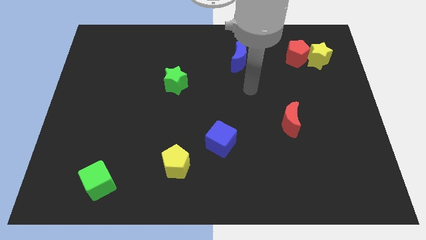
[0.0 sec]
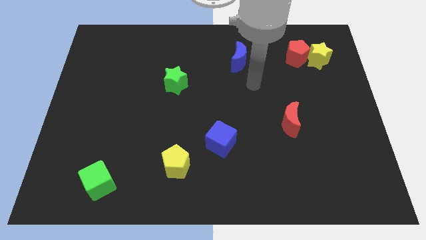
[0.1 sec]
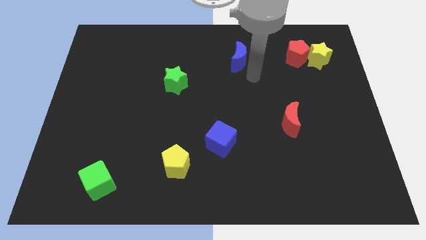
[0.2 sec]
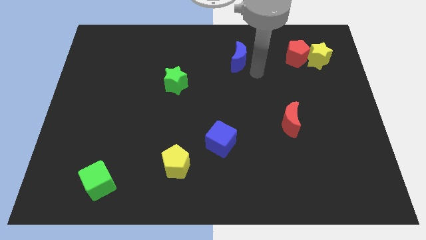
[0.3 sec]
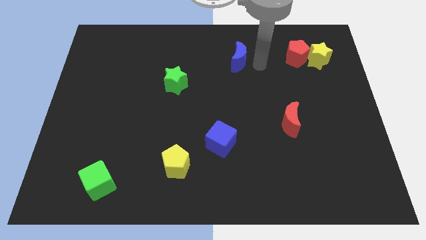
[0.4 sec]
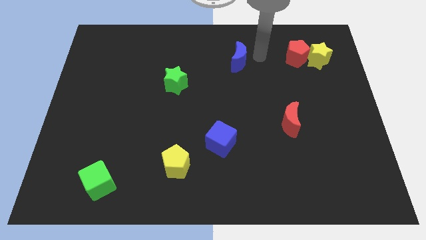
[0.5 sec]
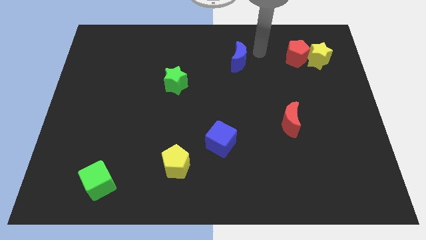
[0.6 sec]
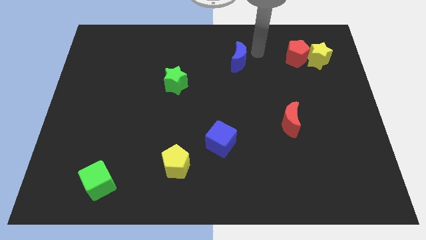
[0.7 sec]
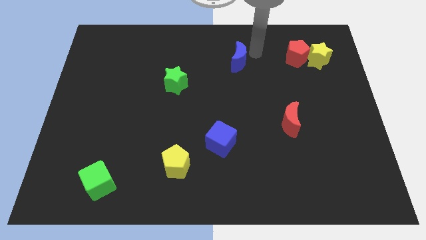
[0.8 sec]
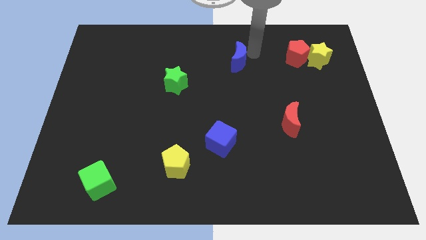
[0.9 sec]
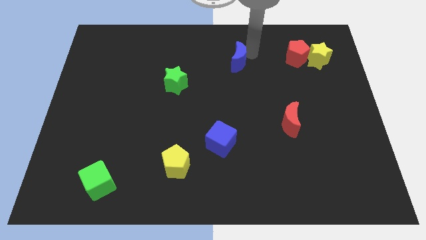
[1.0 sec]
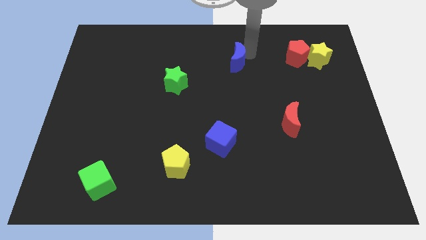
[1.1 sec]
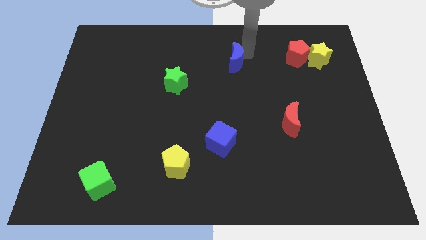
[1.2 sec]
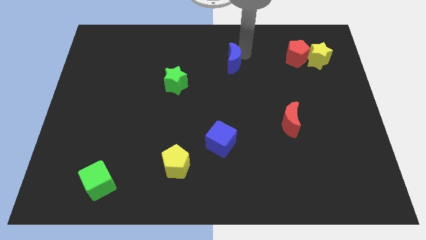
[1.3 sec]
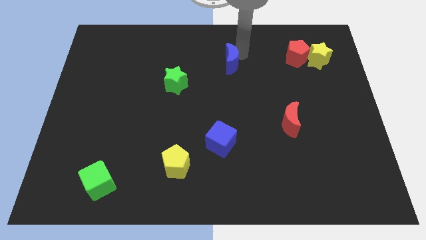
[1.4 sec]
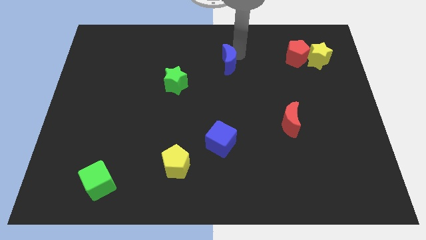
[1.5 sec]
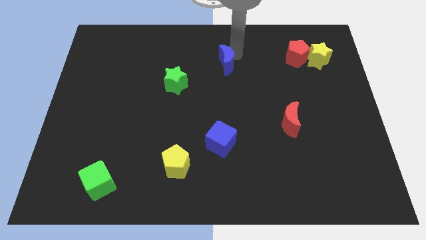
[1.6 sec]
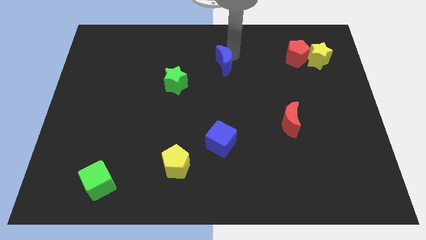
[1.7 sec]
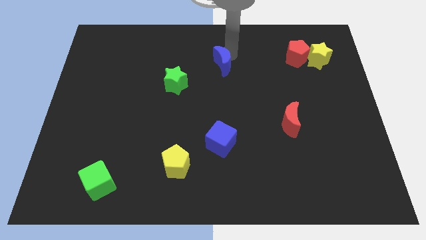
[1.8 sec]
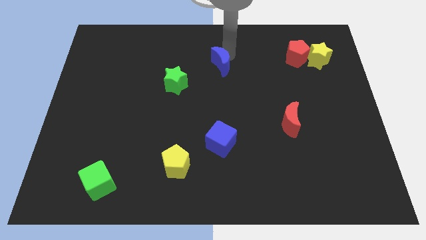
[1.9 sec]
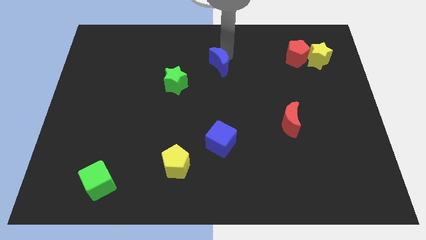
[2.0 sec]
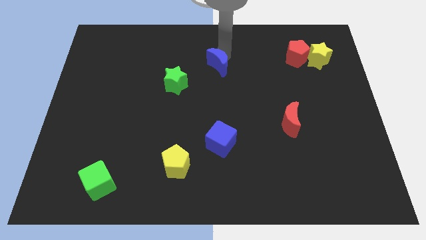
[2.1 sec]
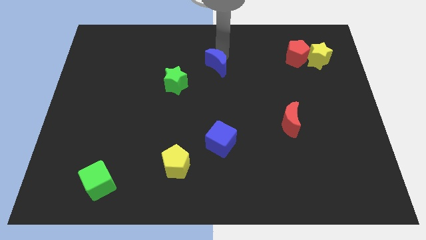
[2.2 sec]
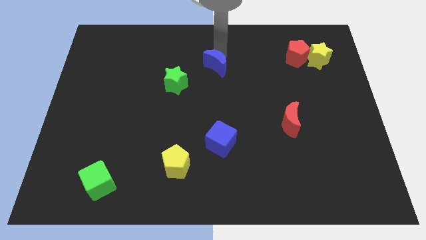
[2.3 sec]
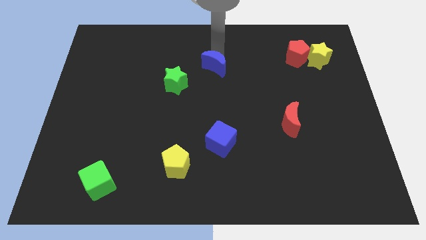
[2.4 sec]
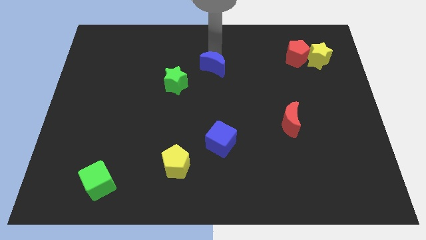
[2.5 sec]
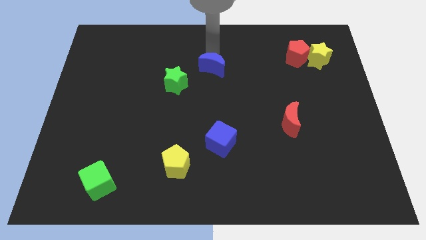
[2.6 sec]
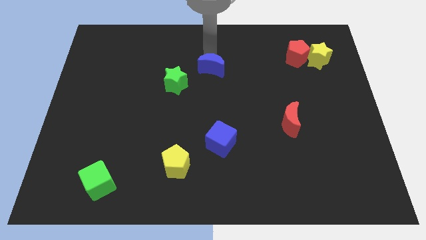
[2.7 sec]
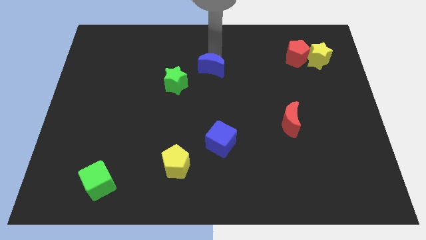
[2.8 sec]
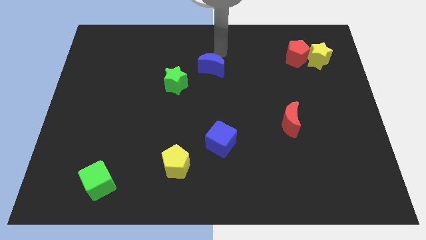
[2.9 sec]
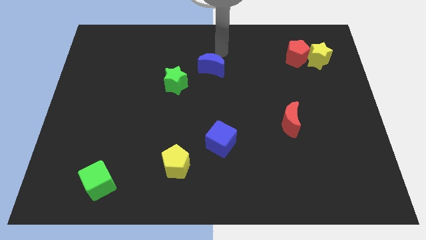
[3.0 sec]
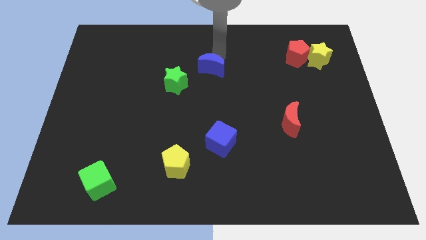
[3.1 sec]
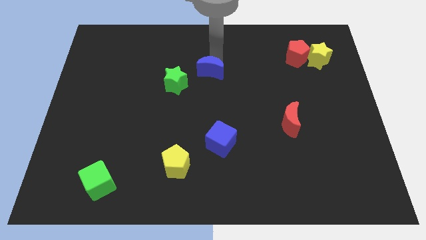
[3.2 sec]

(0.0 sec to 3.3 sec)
push the blue moon a little down and then to the left

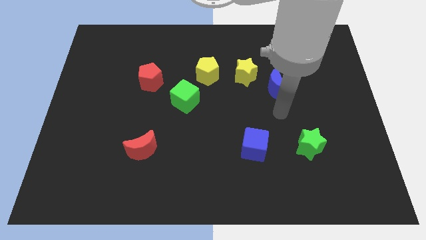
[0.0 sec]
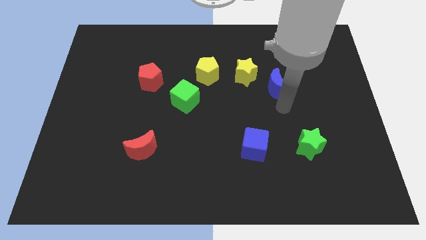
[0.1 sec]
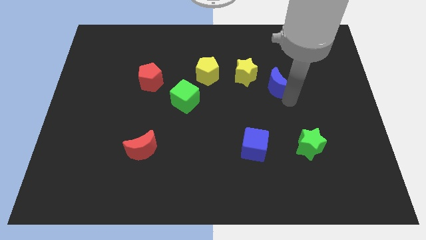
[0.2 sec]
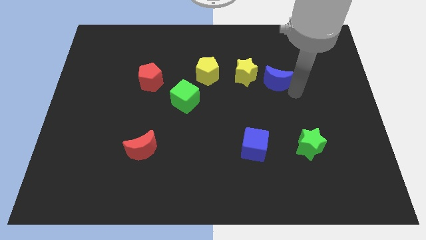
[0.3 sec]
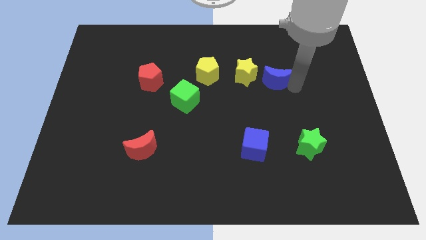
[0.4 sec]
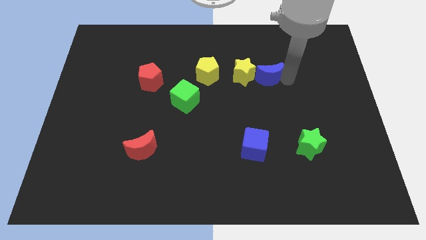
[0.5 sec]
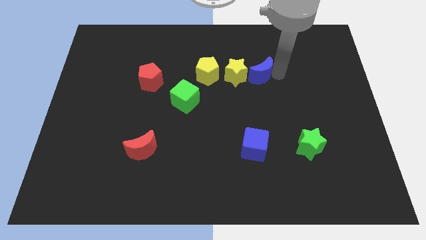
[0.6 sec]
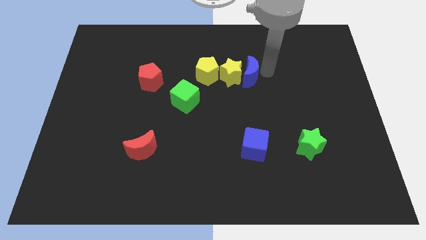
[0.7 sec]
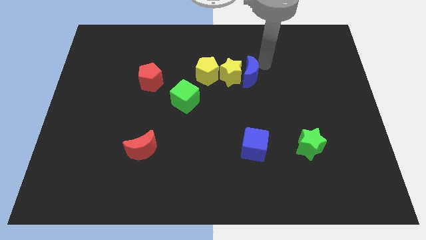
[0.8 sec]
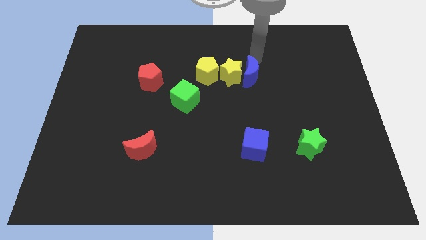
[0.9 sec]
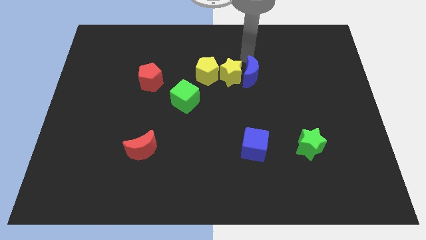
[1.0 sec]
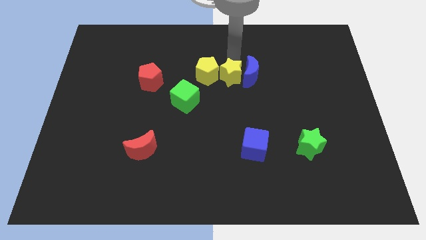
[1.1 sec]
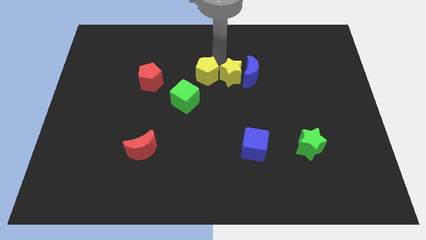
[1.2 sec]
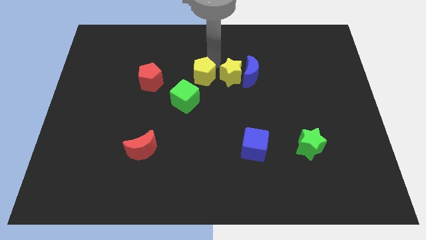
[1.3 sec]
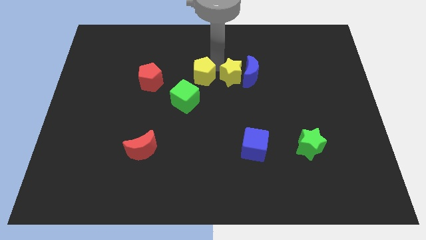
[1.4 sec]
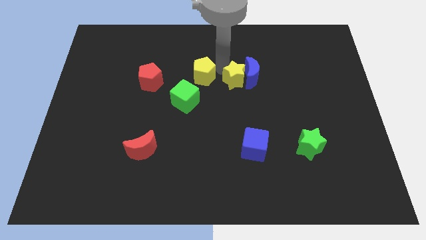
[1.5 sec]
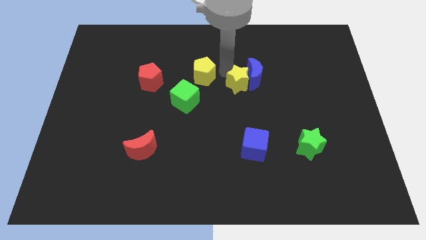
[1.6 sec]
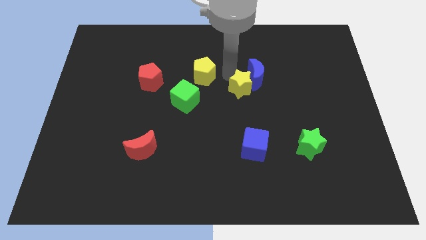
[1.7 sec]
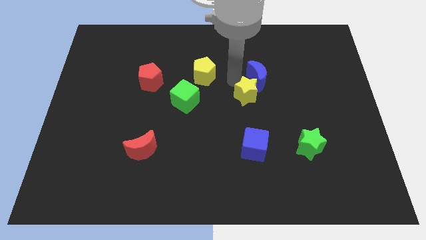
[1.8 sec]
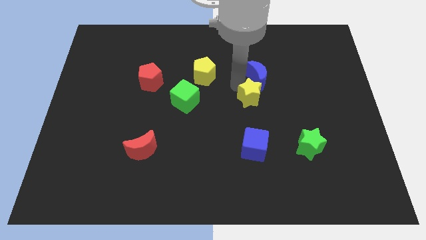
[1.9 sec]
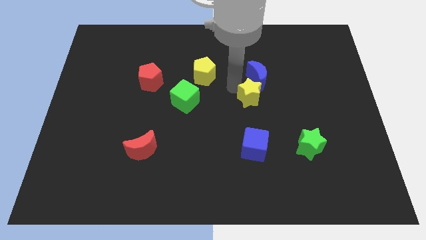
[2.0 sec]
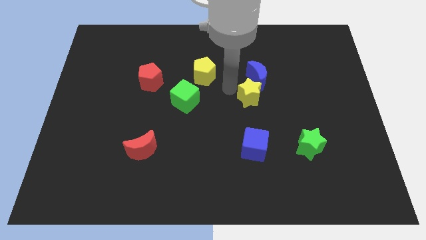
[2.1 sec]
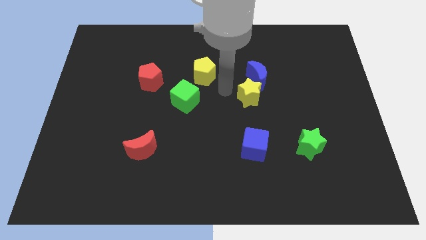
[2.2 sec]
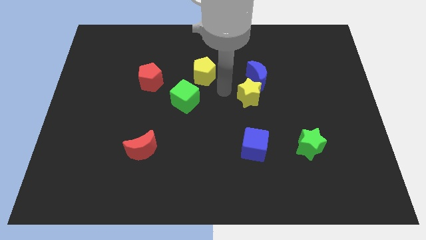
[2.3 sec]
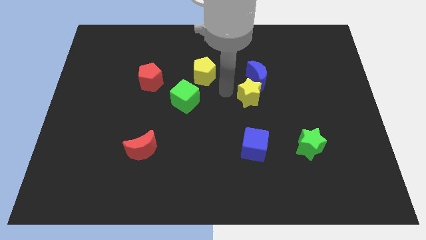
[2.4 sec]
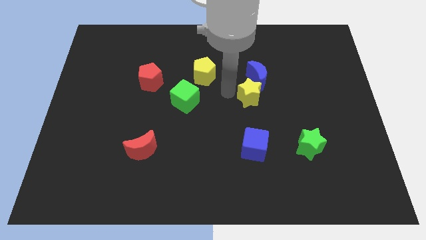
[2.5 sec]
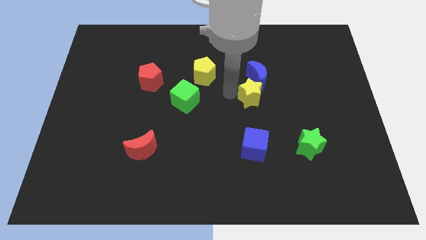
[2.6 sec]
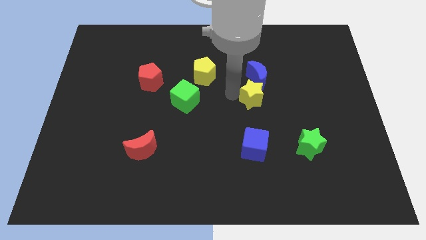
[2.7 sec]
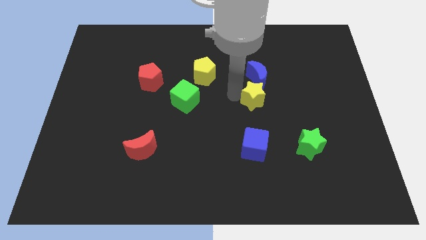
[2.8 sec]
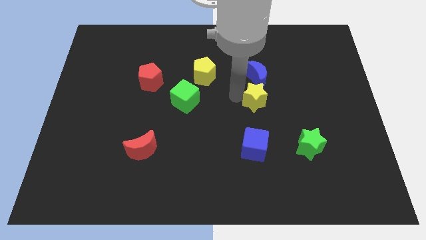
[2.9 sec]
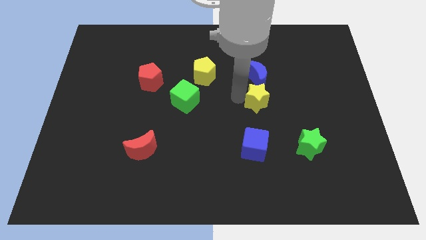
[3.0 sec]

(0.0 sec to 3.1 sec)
move the yellow star down and then to the right somewhat

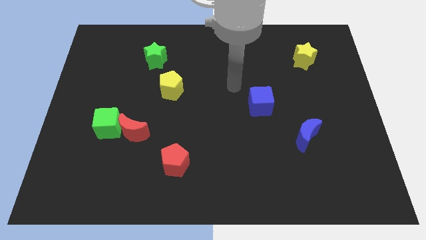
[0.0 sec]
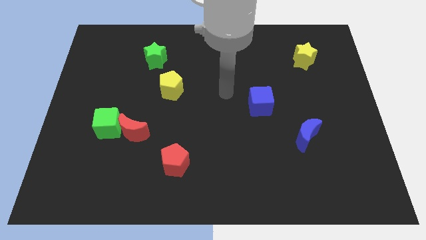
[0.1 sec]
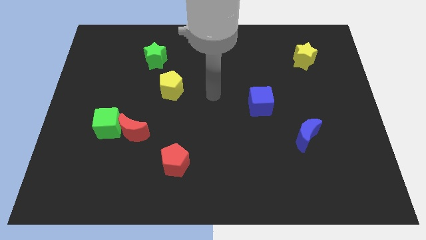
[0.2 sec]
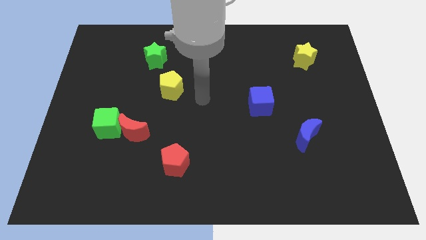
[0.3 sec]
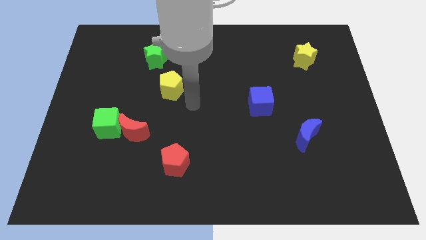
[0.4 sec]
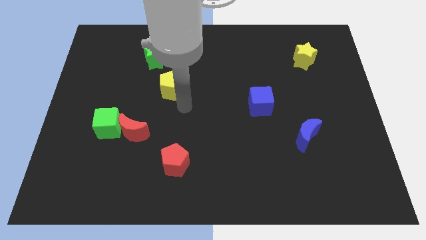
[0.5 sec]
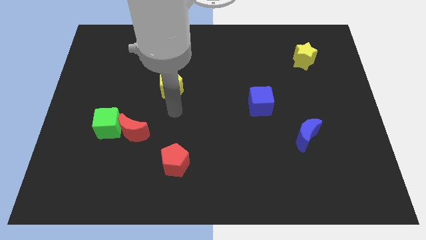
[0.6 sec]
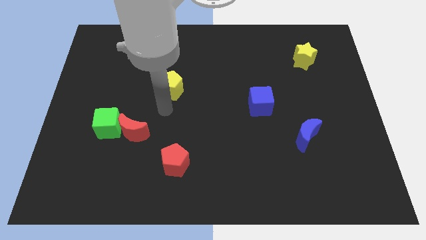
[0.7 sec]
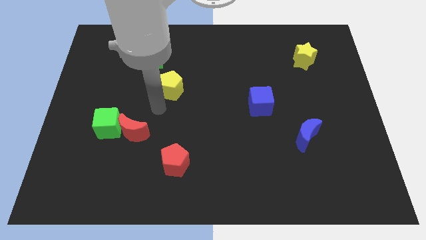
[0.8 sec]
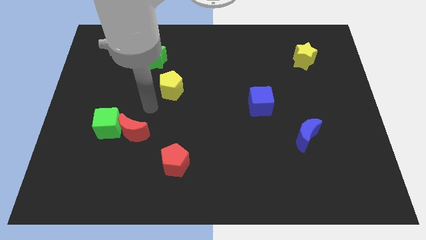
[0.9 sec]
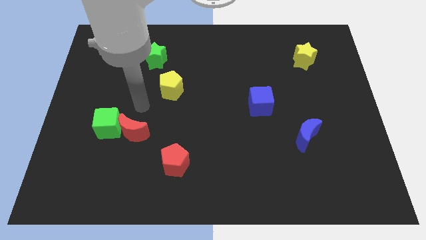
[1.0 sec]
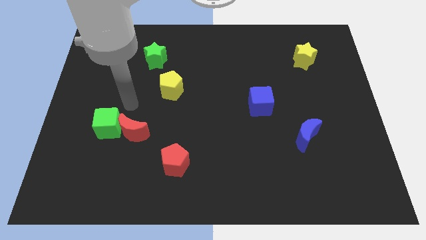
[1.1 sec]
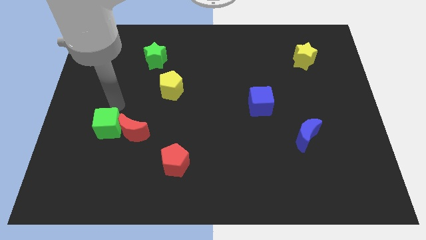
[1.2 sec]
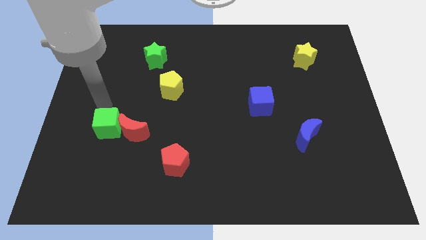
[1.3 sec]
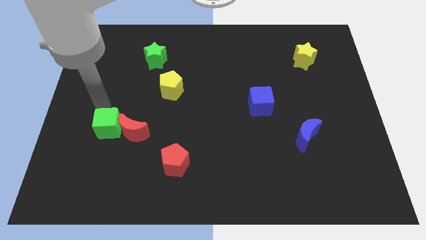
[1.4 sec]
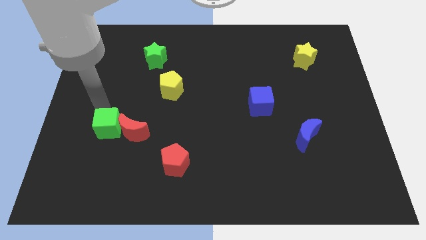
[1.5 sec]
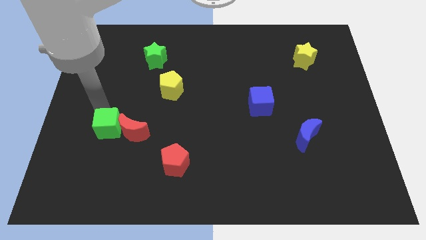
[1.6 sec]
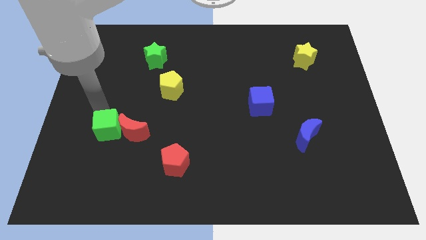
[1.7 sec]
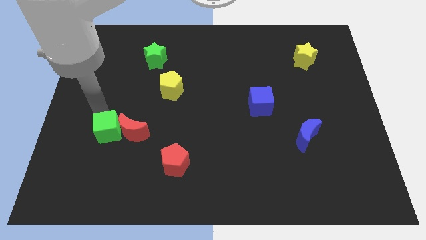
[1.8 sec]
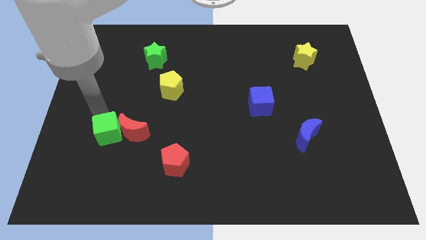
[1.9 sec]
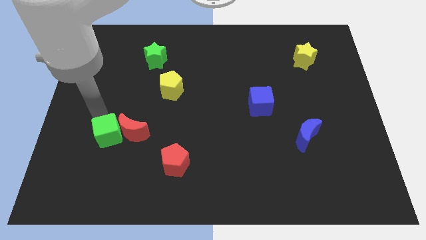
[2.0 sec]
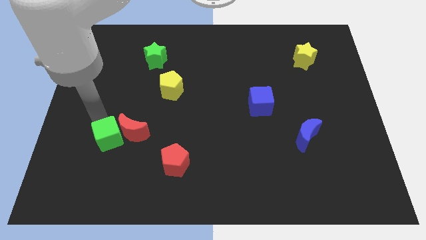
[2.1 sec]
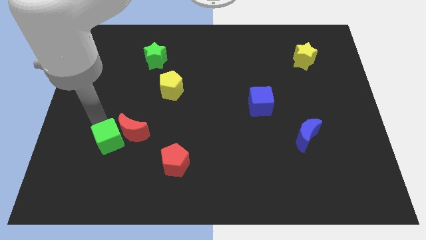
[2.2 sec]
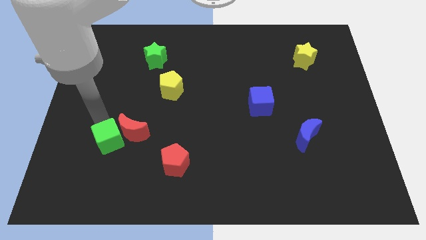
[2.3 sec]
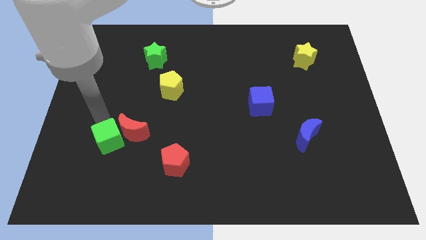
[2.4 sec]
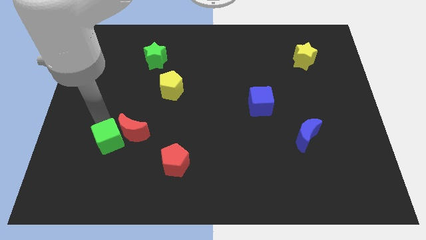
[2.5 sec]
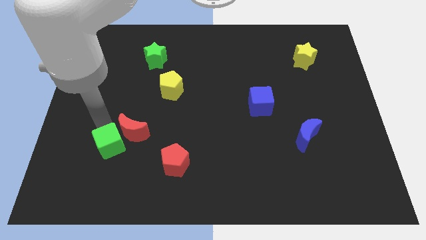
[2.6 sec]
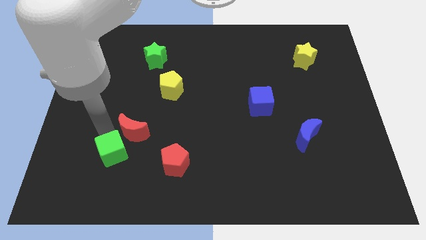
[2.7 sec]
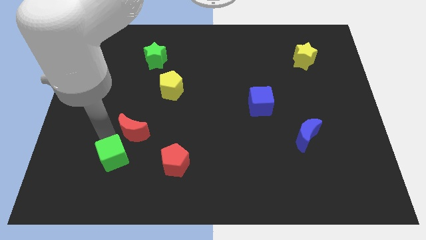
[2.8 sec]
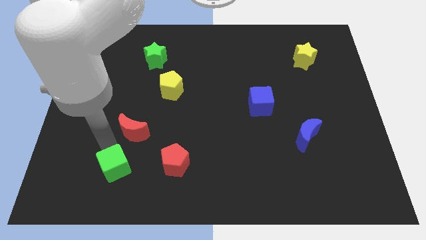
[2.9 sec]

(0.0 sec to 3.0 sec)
slightly slide the green cube diagonally downwards and right
